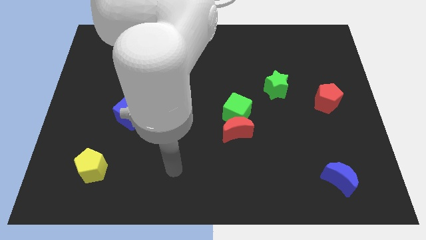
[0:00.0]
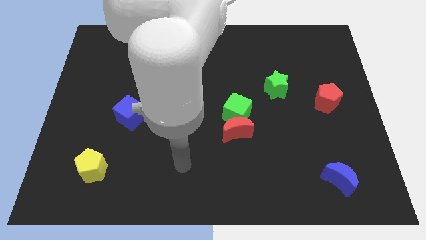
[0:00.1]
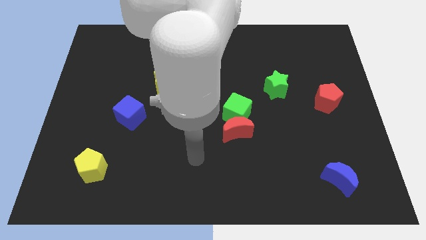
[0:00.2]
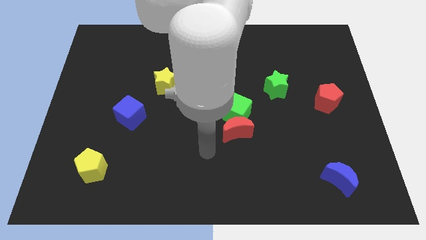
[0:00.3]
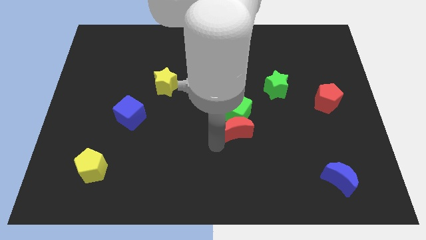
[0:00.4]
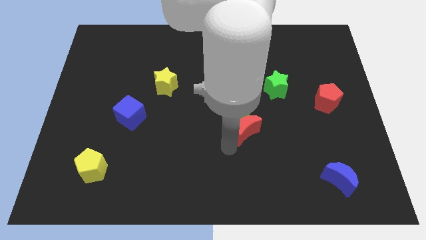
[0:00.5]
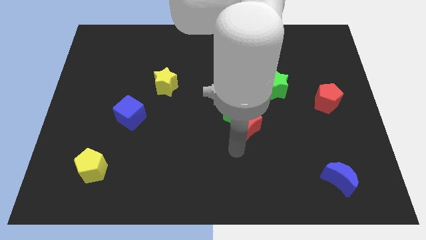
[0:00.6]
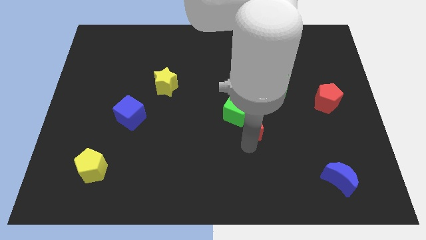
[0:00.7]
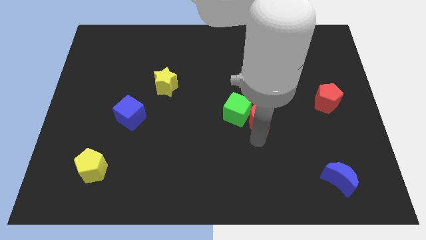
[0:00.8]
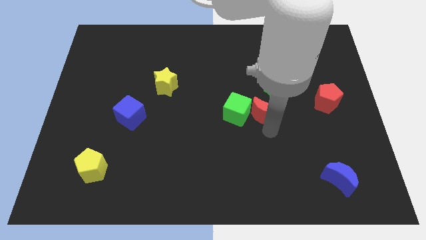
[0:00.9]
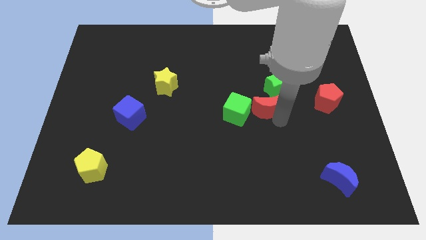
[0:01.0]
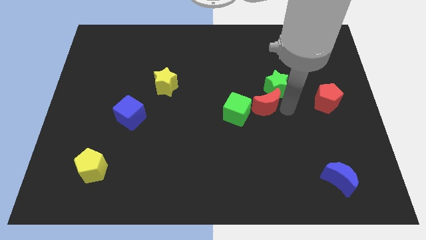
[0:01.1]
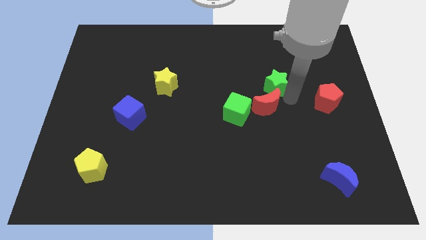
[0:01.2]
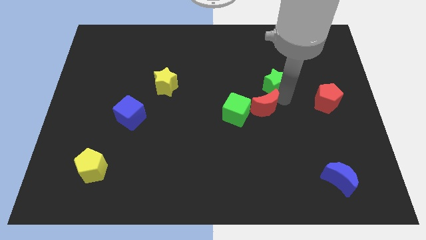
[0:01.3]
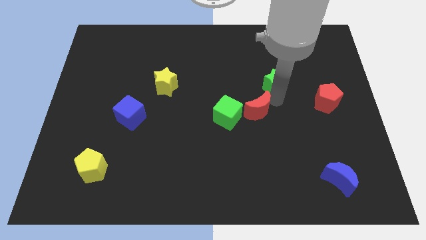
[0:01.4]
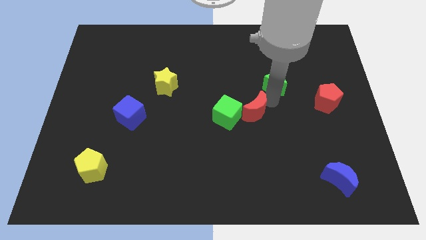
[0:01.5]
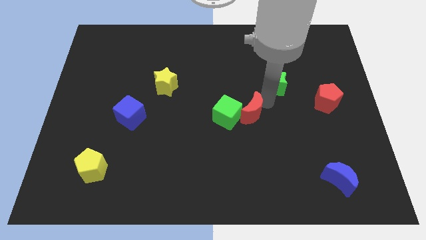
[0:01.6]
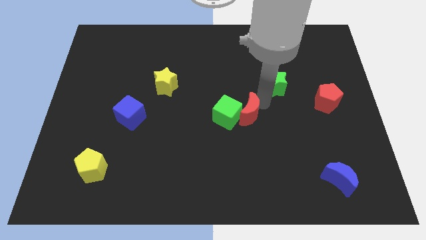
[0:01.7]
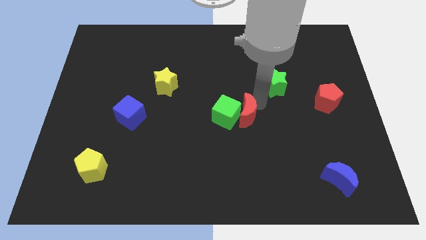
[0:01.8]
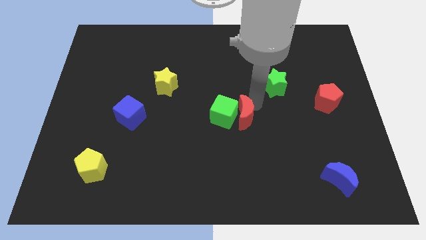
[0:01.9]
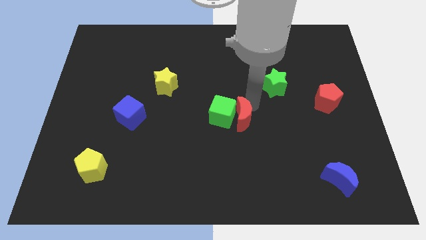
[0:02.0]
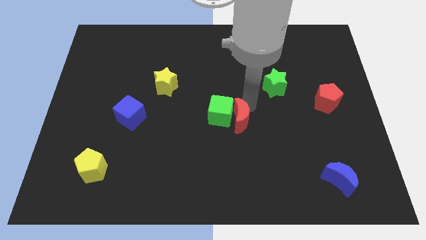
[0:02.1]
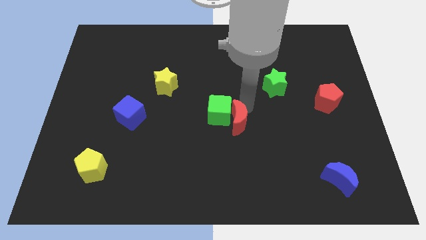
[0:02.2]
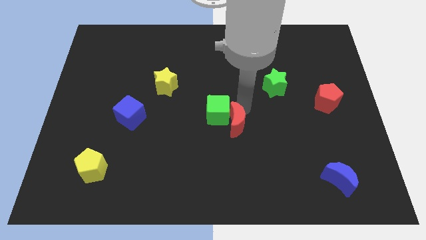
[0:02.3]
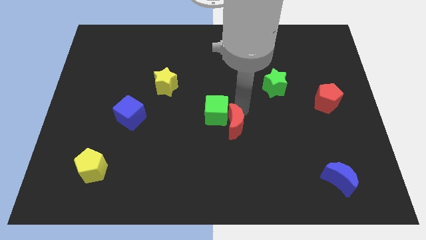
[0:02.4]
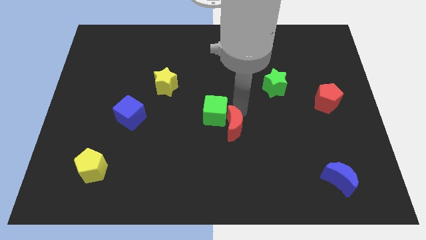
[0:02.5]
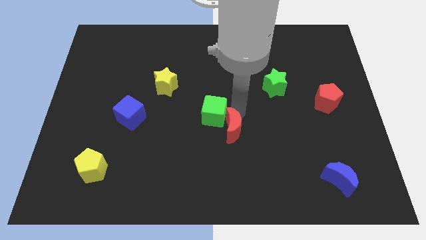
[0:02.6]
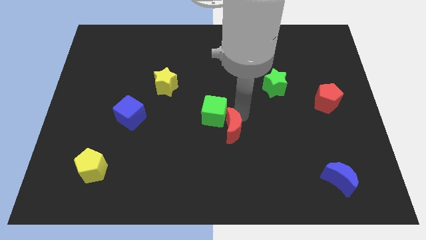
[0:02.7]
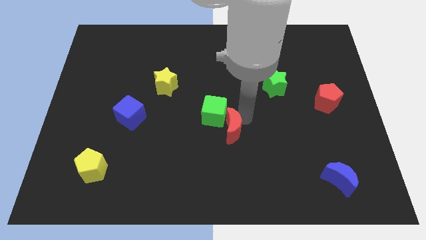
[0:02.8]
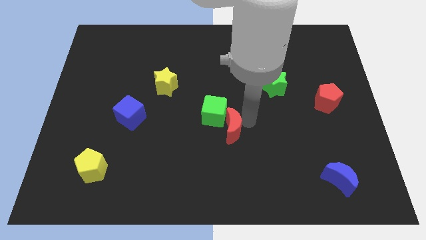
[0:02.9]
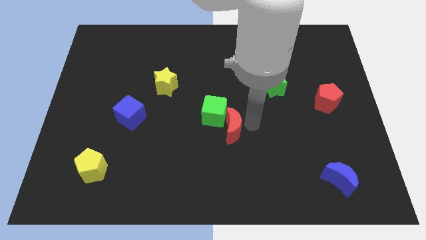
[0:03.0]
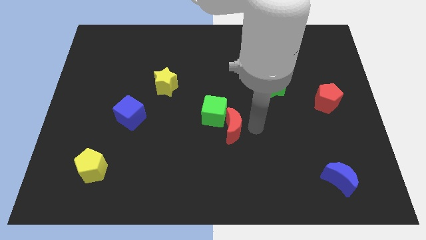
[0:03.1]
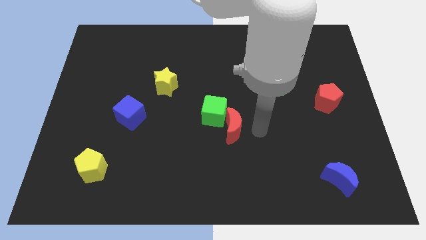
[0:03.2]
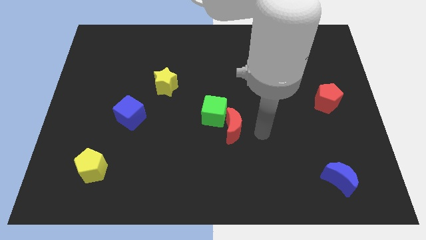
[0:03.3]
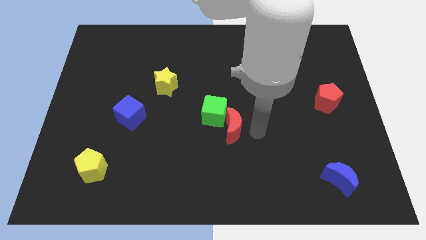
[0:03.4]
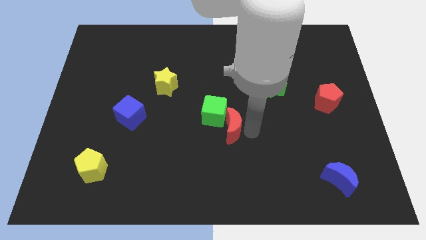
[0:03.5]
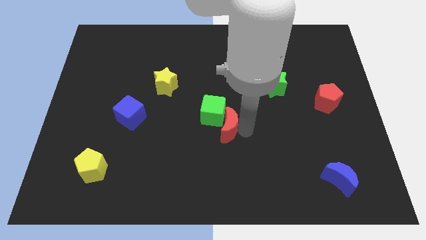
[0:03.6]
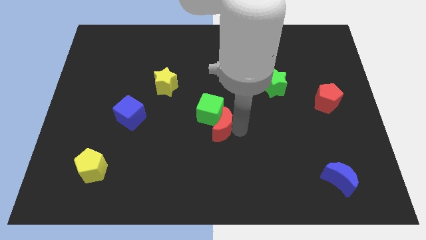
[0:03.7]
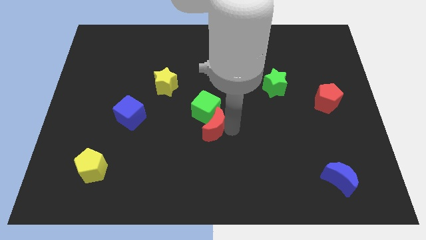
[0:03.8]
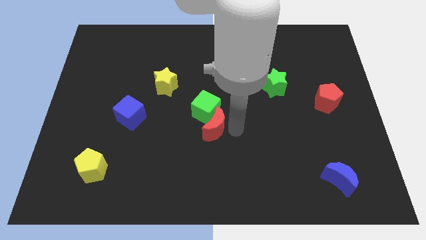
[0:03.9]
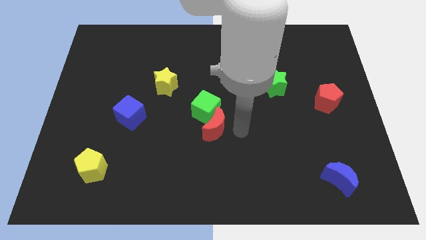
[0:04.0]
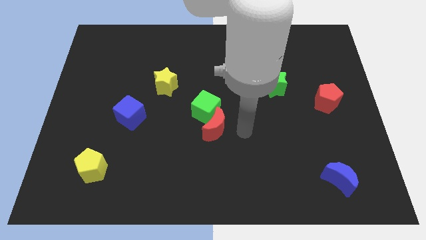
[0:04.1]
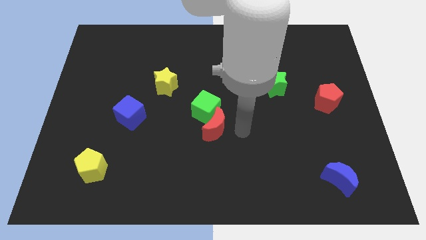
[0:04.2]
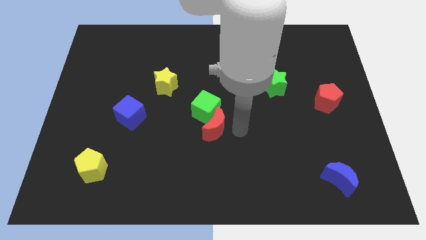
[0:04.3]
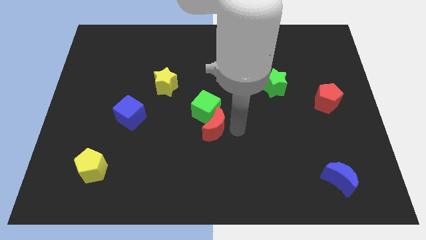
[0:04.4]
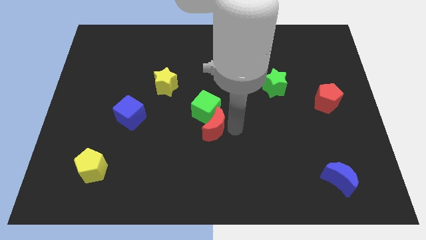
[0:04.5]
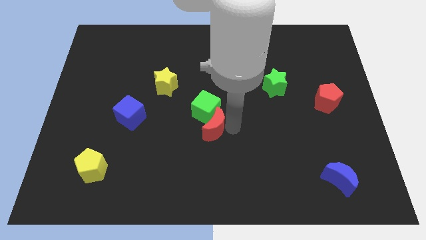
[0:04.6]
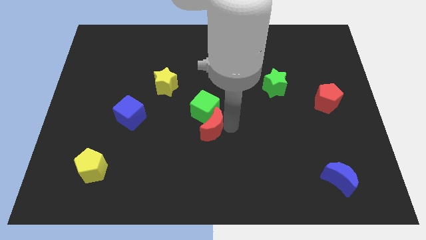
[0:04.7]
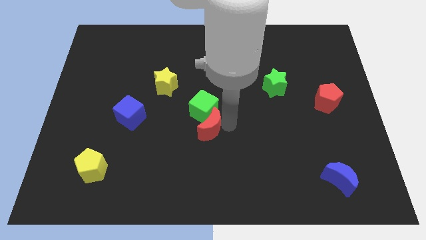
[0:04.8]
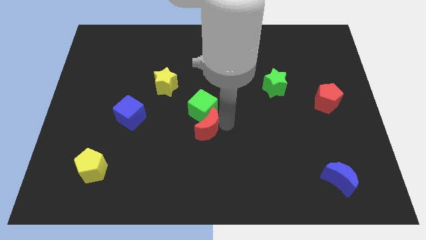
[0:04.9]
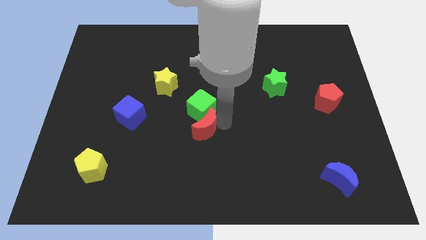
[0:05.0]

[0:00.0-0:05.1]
move the red moon somewhat to the left

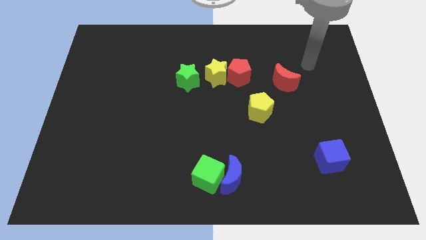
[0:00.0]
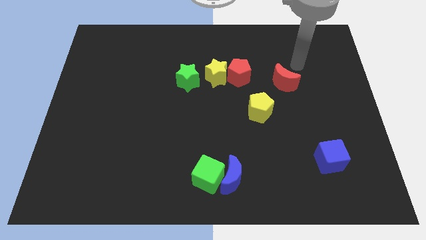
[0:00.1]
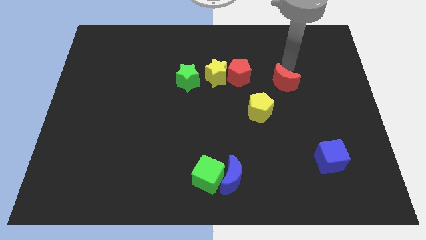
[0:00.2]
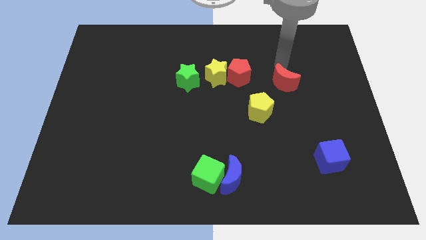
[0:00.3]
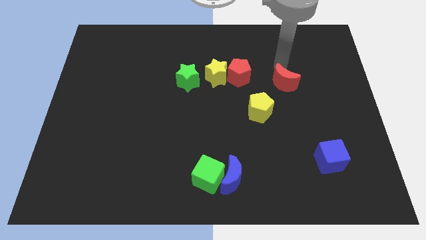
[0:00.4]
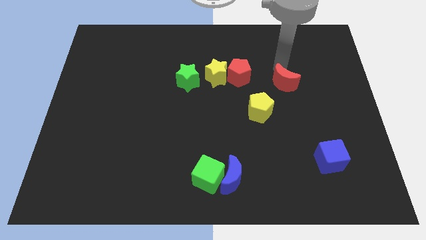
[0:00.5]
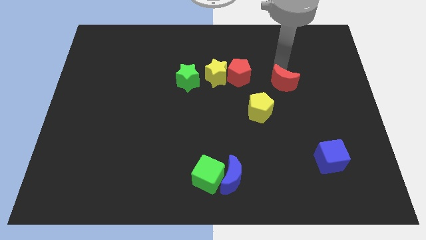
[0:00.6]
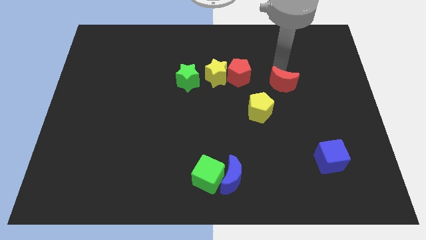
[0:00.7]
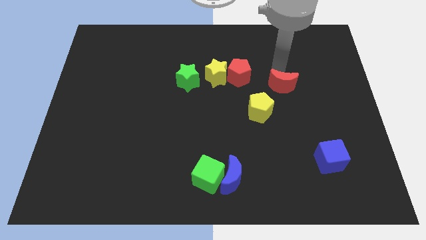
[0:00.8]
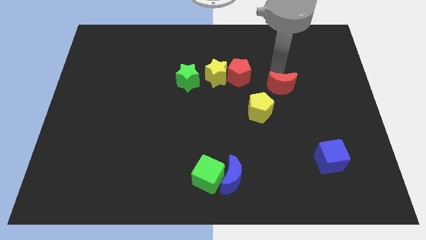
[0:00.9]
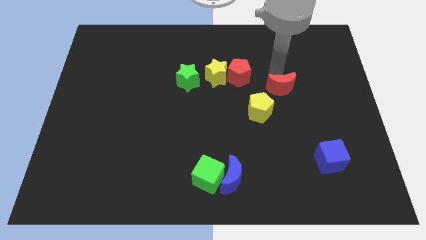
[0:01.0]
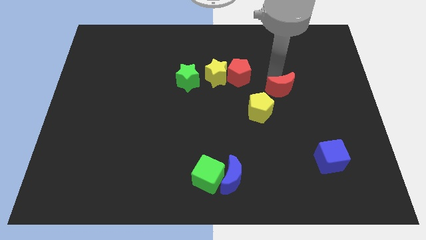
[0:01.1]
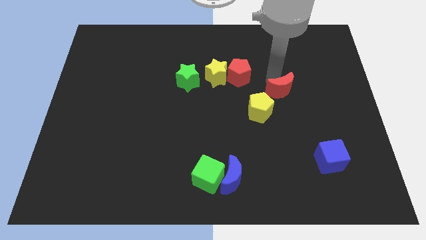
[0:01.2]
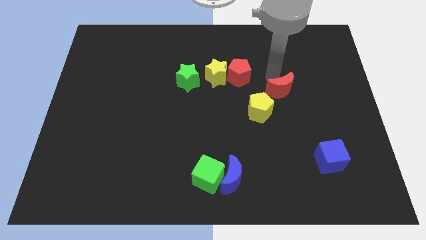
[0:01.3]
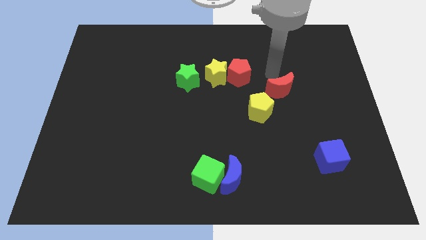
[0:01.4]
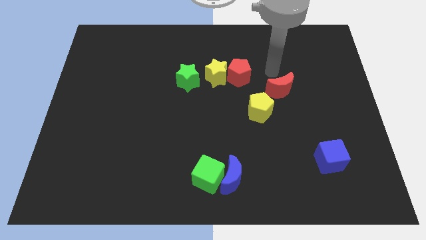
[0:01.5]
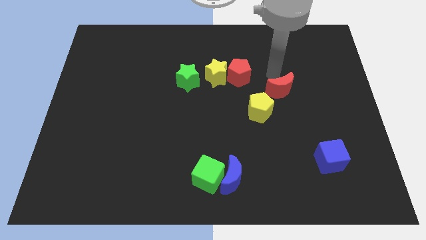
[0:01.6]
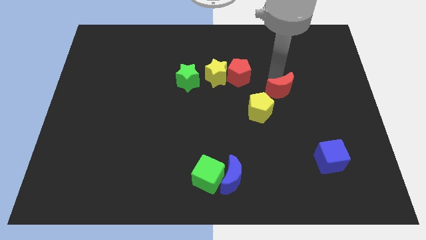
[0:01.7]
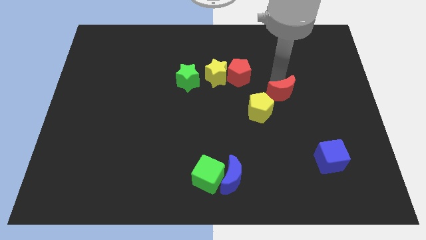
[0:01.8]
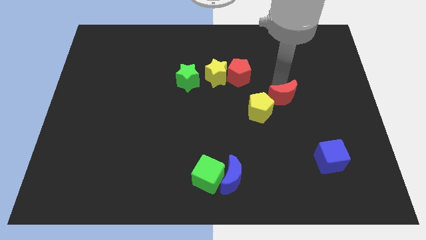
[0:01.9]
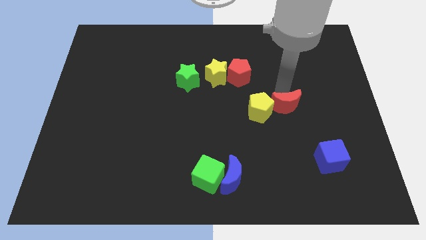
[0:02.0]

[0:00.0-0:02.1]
slightly slide the red moon downwards

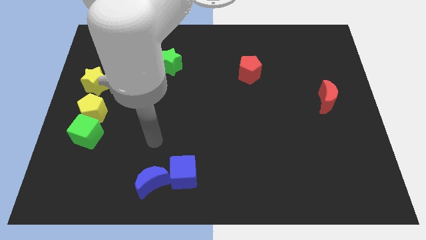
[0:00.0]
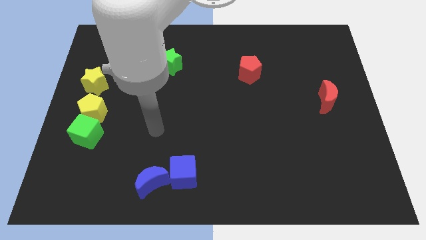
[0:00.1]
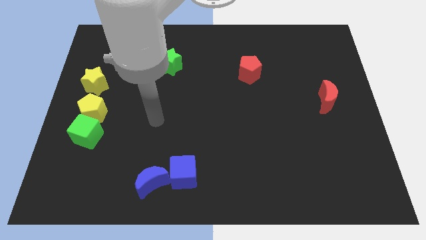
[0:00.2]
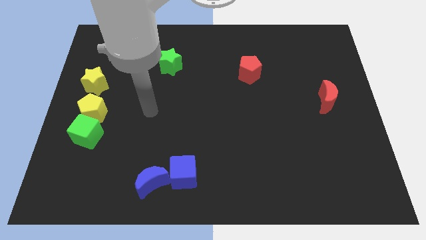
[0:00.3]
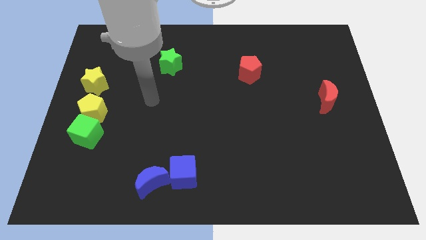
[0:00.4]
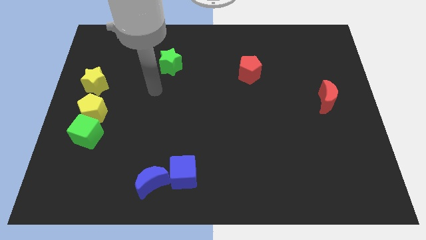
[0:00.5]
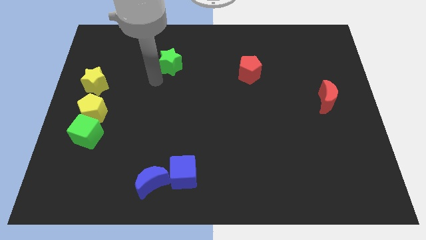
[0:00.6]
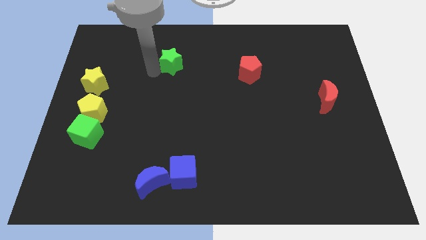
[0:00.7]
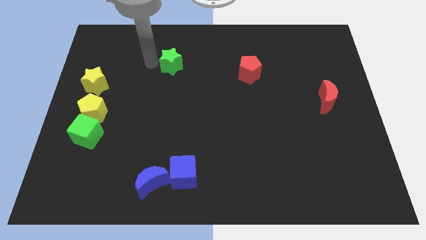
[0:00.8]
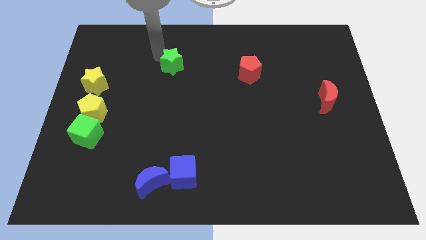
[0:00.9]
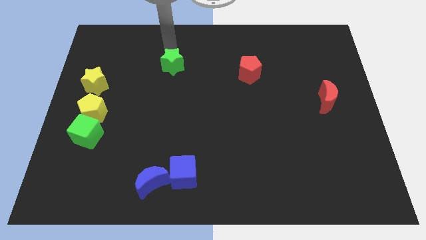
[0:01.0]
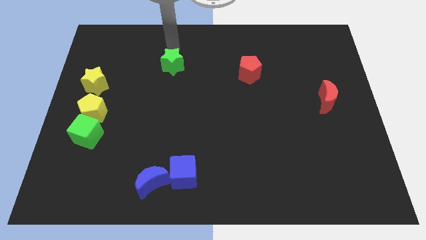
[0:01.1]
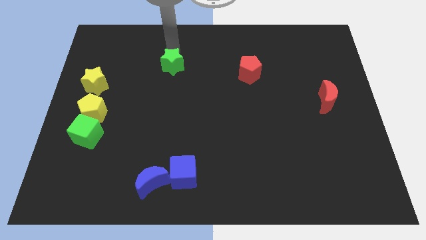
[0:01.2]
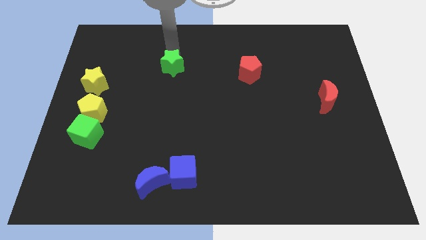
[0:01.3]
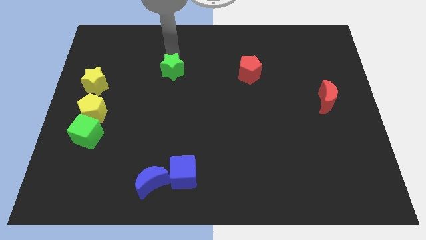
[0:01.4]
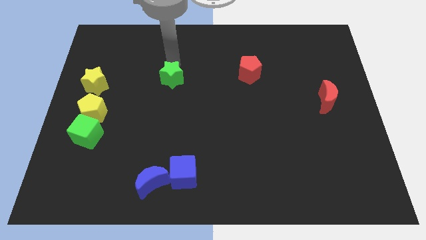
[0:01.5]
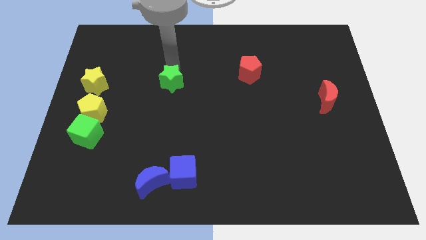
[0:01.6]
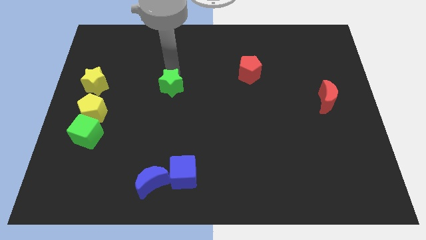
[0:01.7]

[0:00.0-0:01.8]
move the green star slightly downwards
